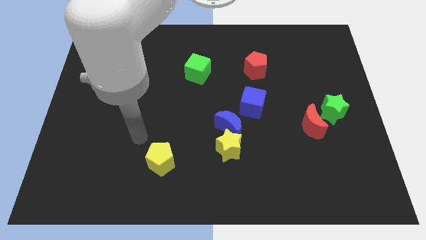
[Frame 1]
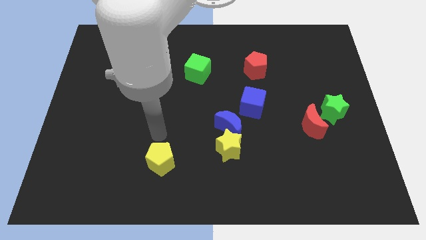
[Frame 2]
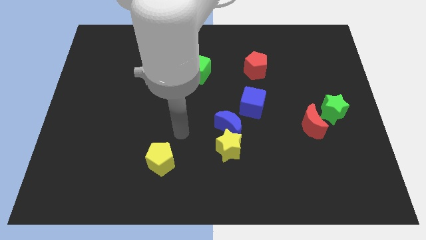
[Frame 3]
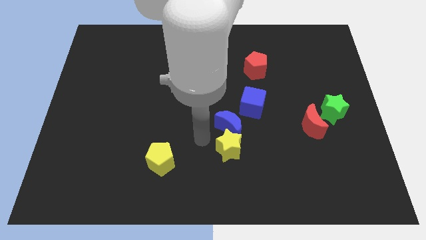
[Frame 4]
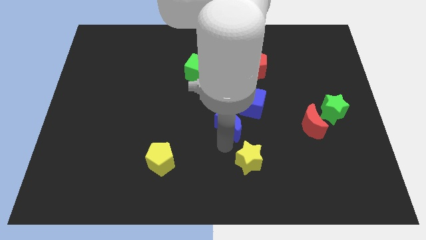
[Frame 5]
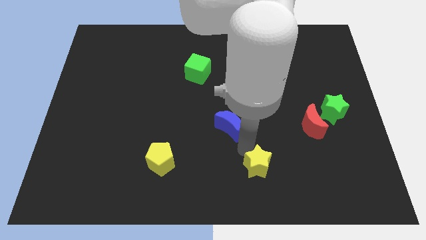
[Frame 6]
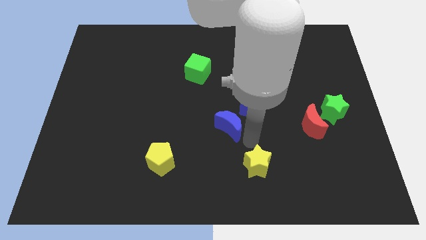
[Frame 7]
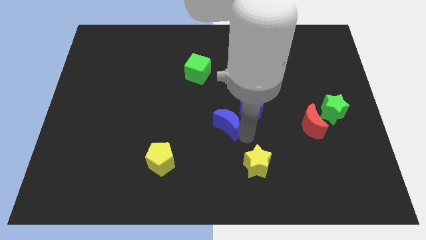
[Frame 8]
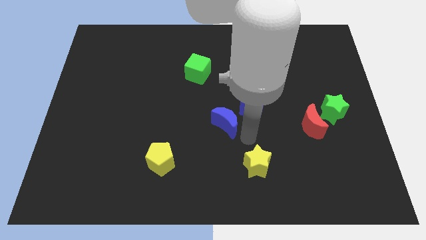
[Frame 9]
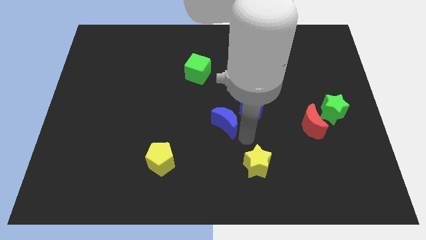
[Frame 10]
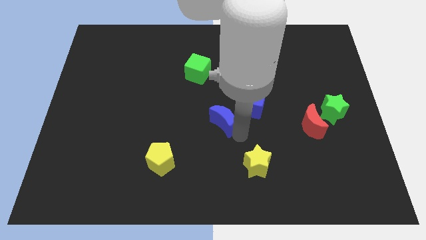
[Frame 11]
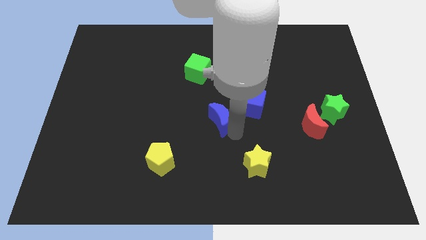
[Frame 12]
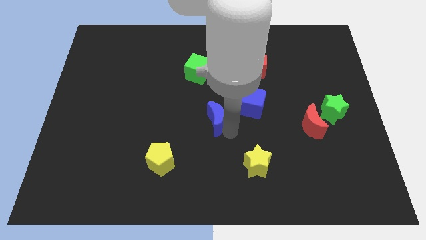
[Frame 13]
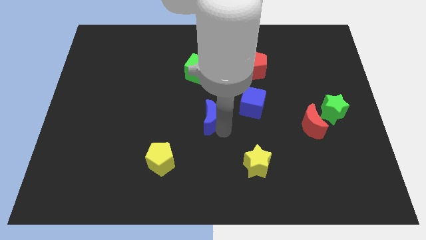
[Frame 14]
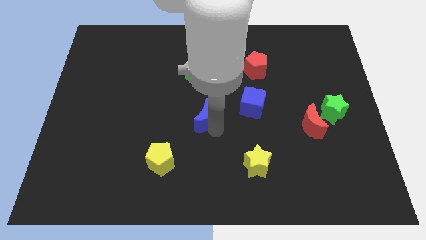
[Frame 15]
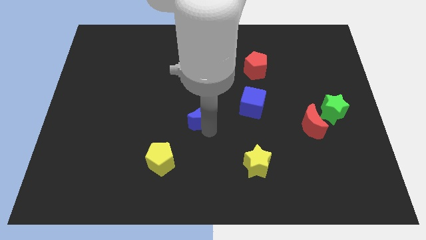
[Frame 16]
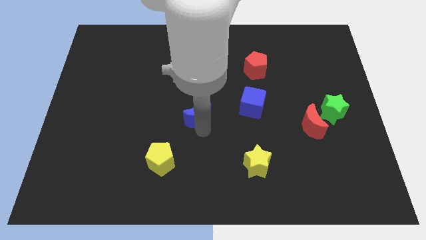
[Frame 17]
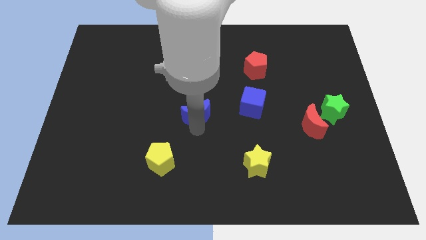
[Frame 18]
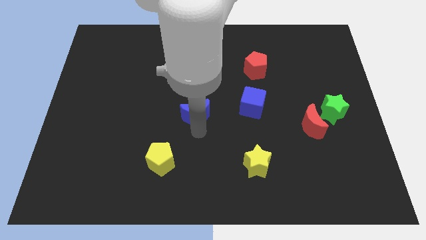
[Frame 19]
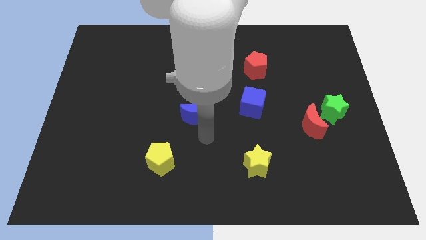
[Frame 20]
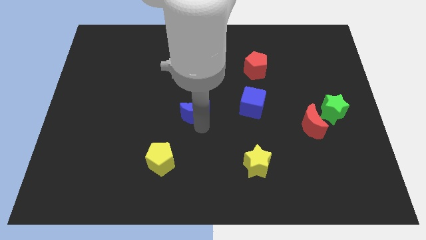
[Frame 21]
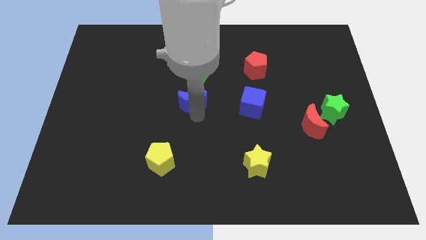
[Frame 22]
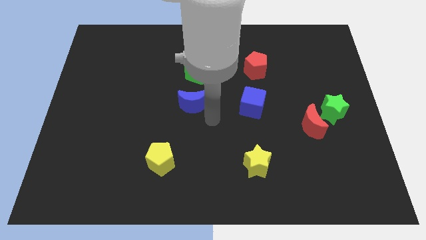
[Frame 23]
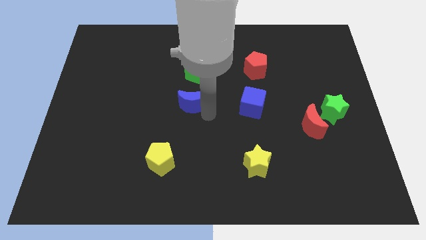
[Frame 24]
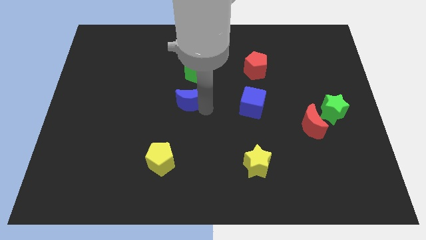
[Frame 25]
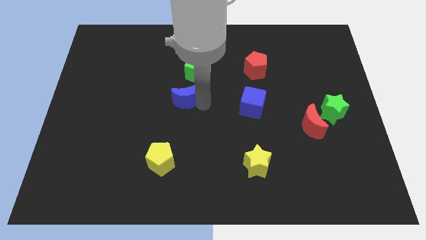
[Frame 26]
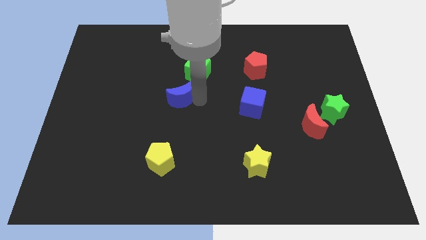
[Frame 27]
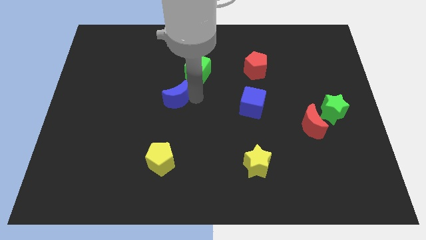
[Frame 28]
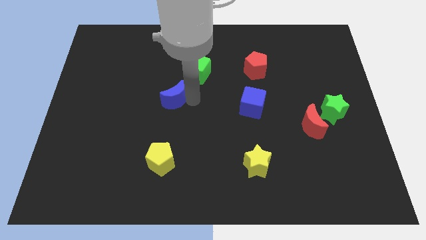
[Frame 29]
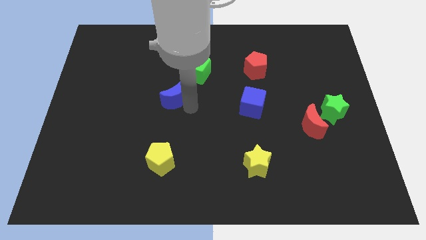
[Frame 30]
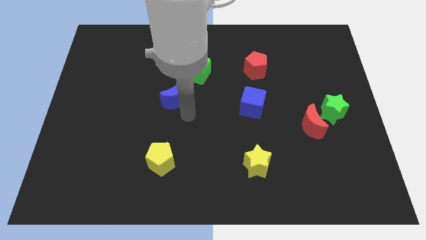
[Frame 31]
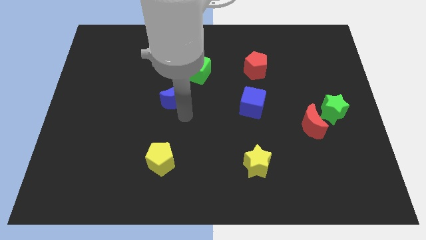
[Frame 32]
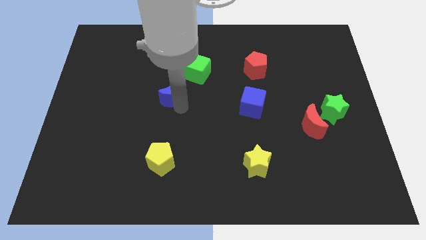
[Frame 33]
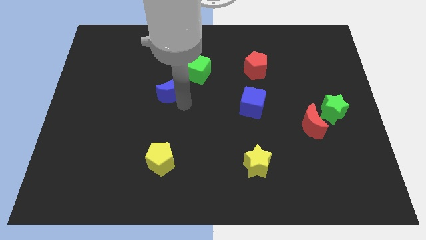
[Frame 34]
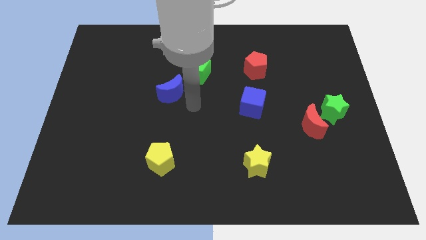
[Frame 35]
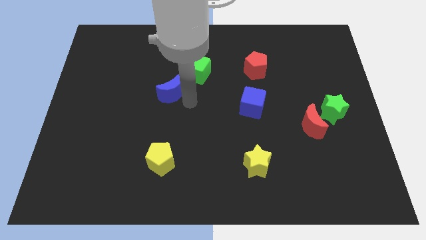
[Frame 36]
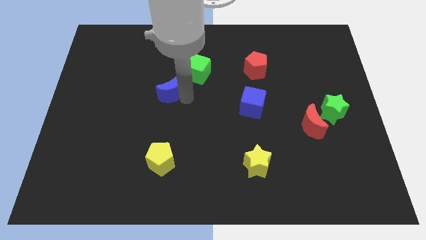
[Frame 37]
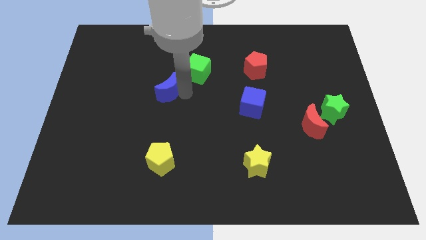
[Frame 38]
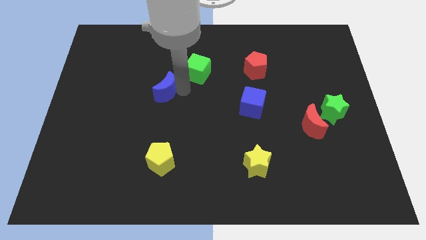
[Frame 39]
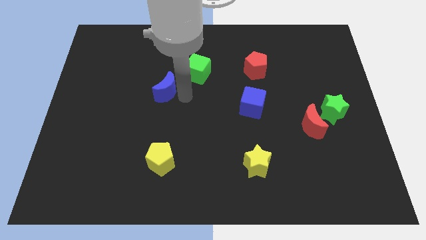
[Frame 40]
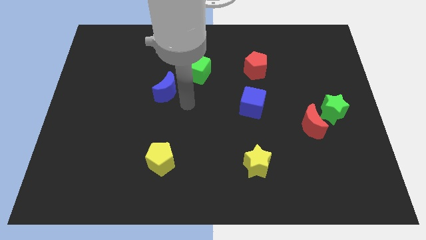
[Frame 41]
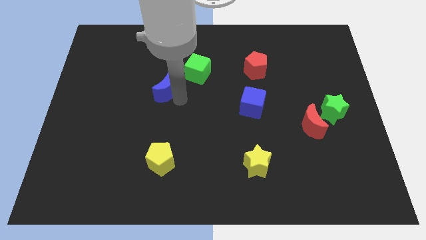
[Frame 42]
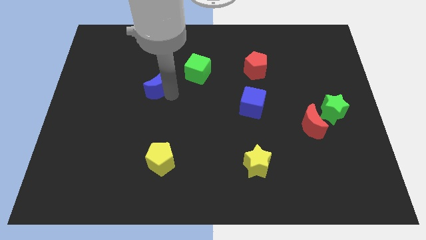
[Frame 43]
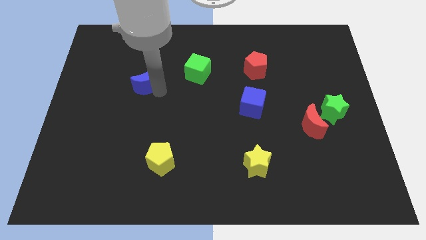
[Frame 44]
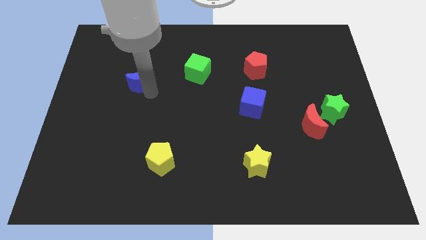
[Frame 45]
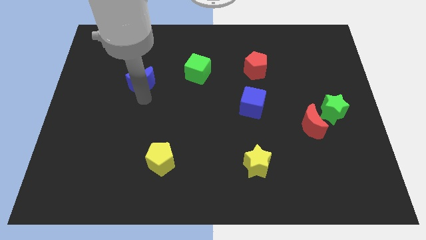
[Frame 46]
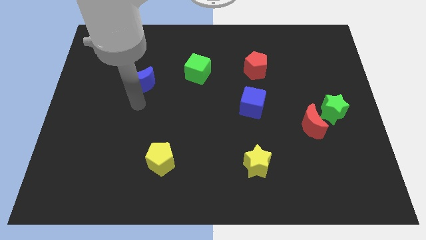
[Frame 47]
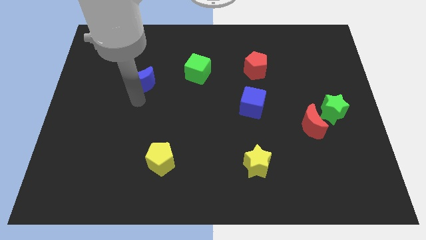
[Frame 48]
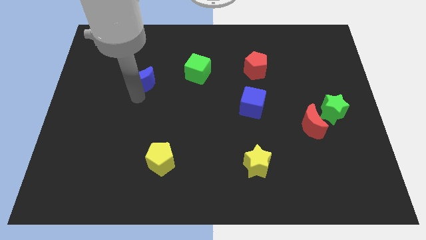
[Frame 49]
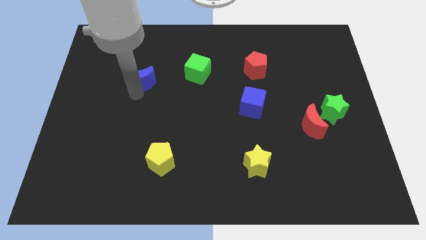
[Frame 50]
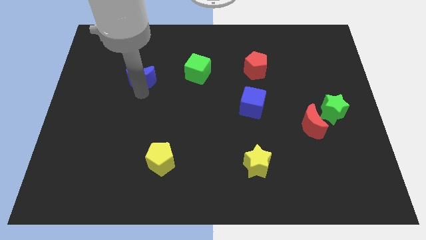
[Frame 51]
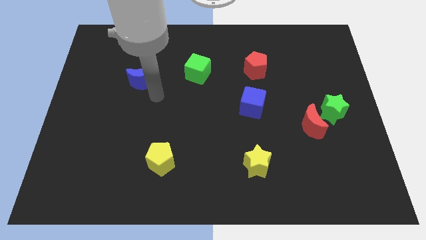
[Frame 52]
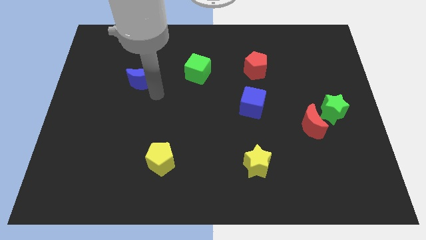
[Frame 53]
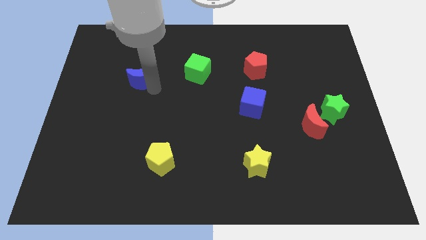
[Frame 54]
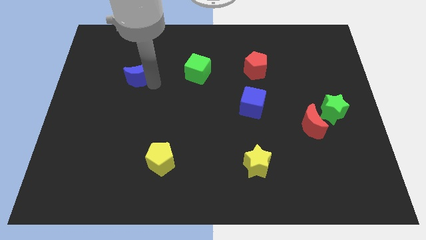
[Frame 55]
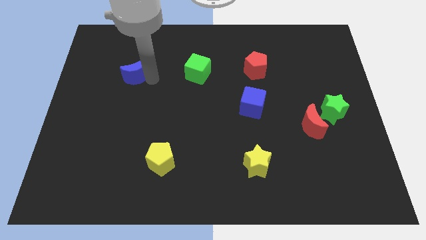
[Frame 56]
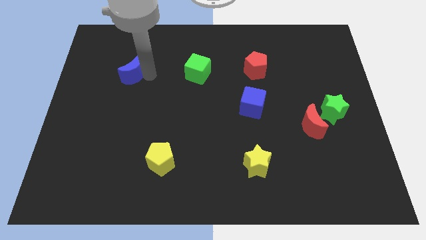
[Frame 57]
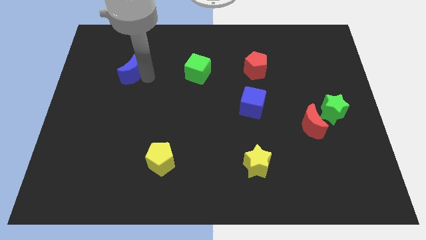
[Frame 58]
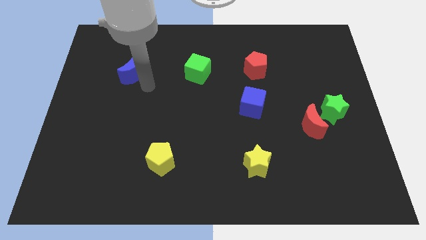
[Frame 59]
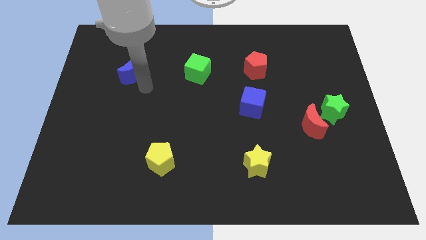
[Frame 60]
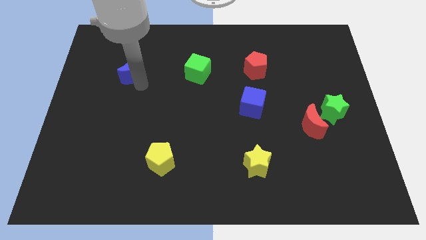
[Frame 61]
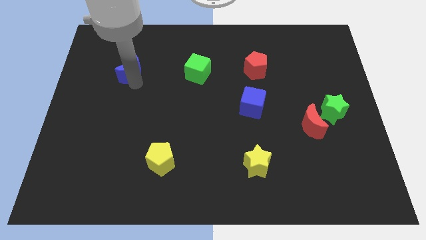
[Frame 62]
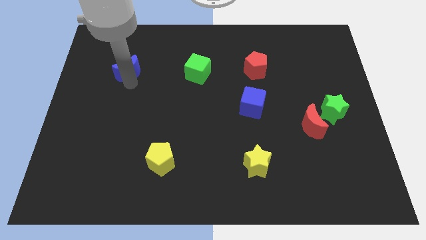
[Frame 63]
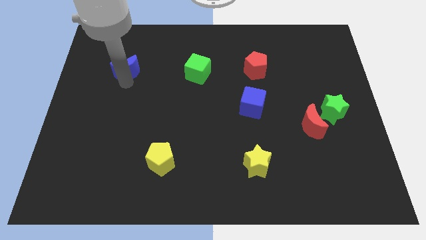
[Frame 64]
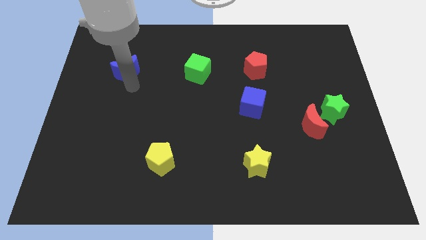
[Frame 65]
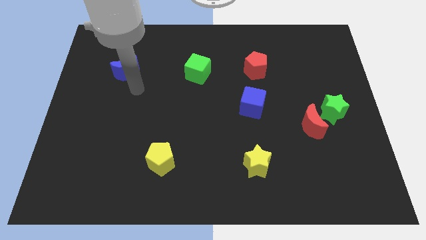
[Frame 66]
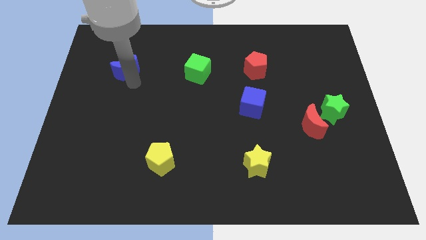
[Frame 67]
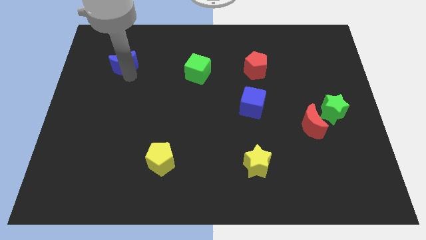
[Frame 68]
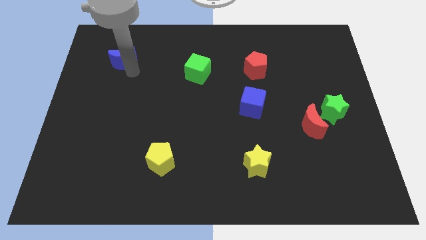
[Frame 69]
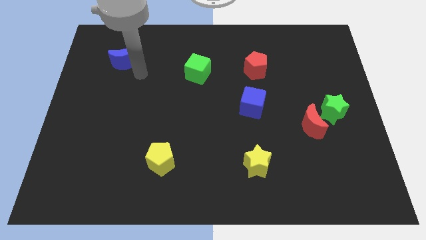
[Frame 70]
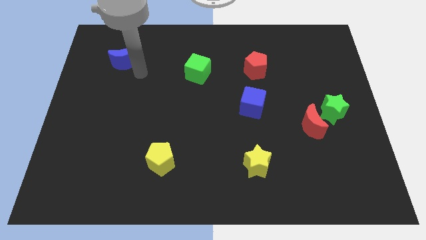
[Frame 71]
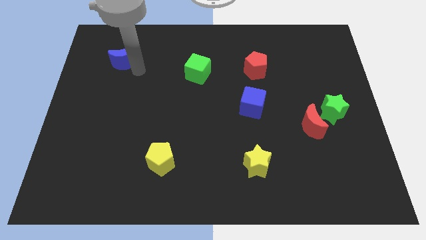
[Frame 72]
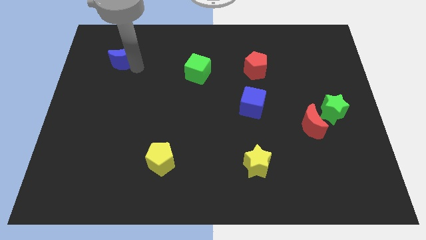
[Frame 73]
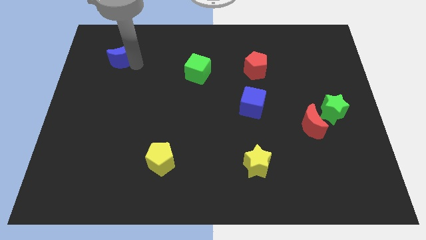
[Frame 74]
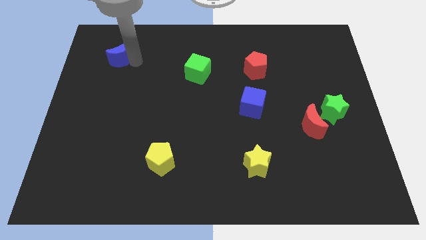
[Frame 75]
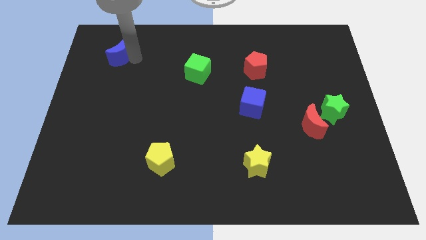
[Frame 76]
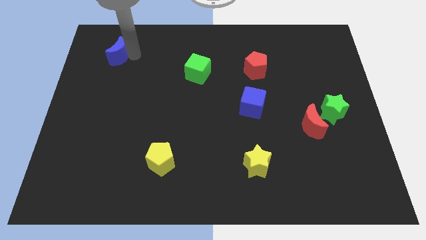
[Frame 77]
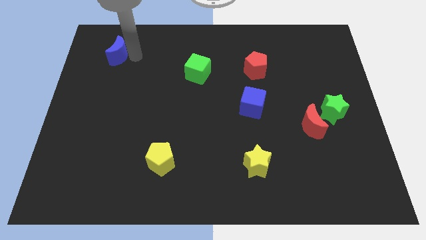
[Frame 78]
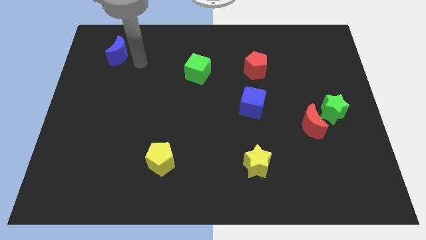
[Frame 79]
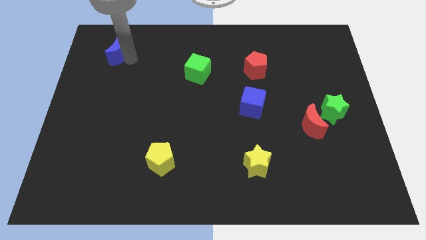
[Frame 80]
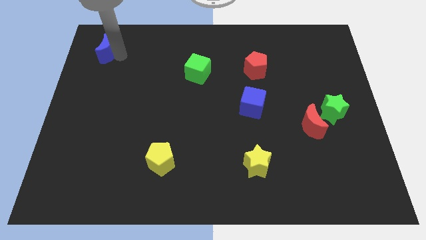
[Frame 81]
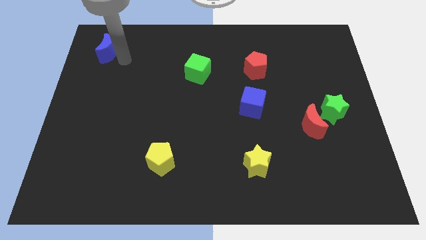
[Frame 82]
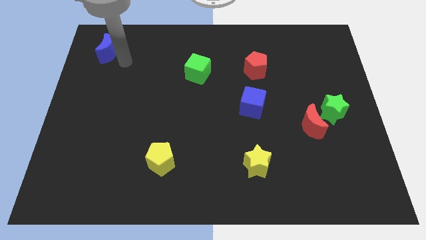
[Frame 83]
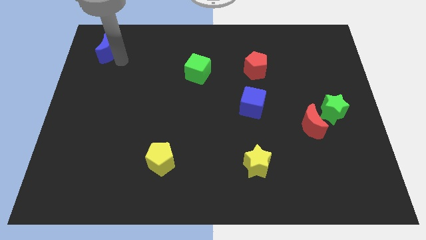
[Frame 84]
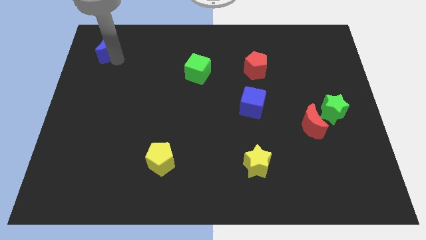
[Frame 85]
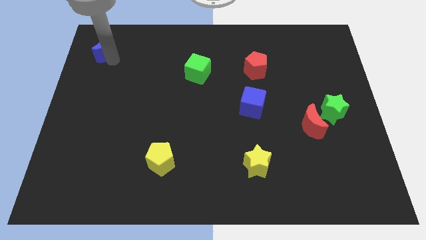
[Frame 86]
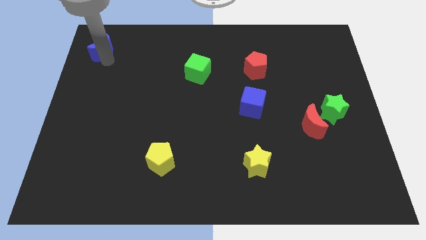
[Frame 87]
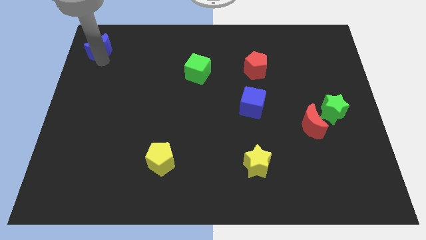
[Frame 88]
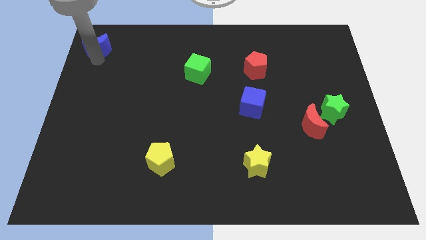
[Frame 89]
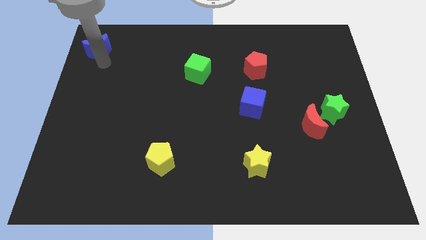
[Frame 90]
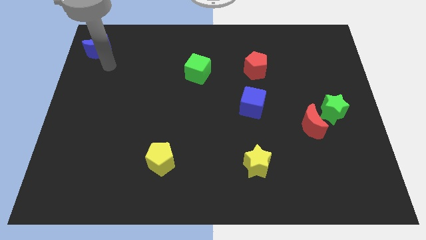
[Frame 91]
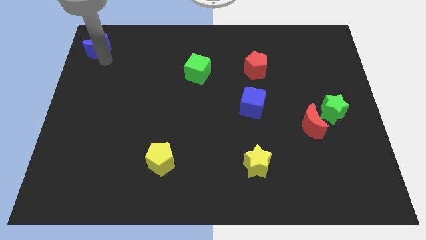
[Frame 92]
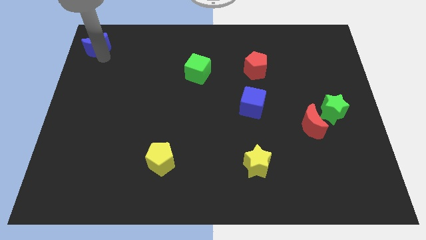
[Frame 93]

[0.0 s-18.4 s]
slide the blue moon to the upper left corner
